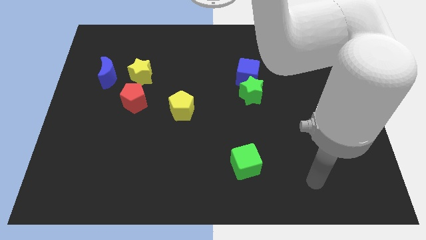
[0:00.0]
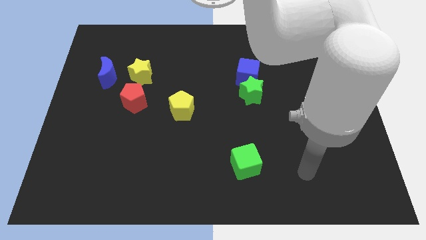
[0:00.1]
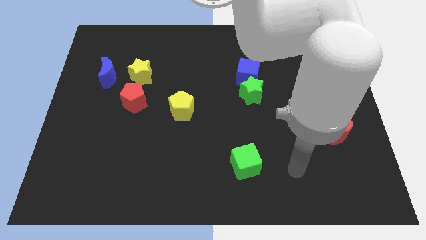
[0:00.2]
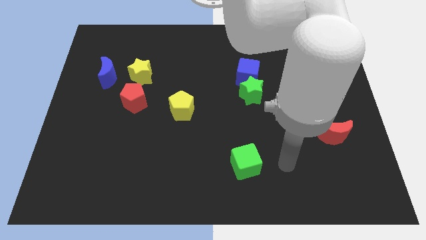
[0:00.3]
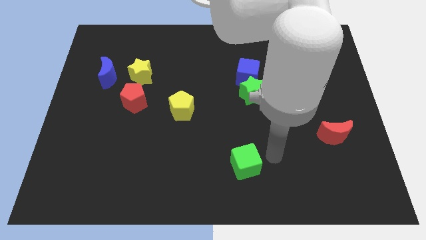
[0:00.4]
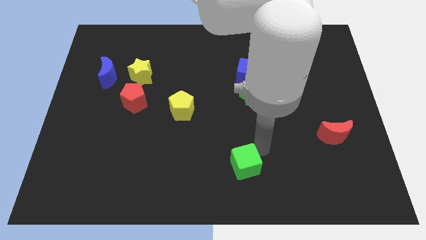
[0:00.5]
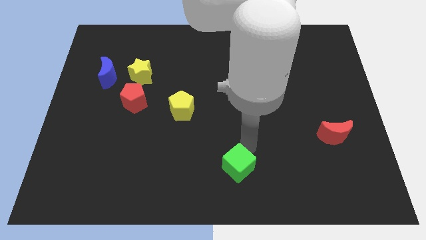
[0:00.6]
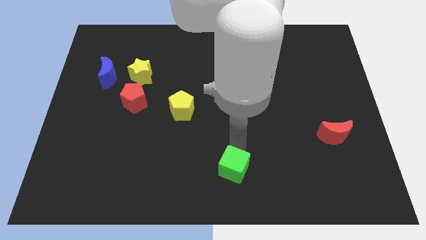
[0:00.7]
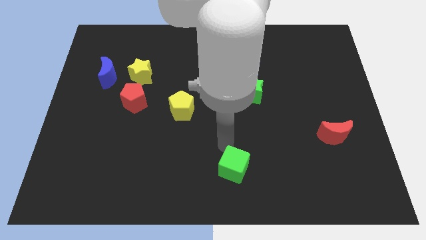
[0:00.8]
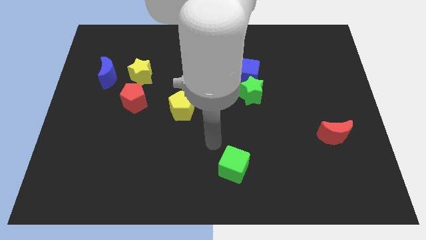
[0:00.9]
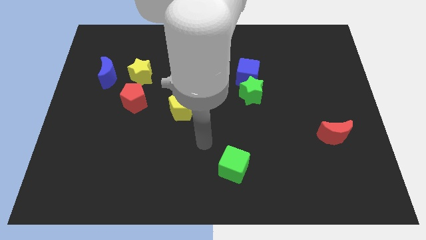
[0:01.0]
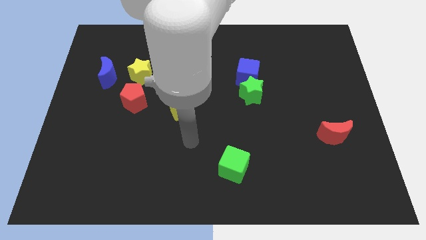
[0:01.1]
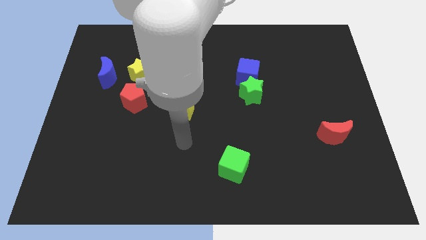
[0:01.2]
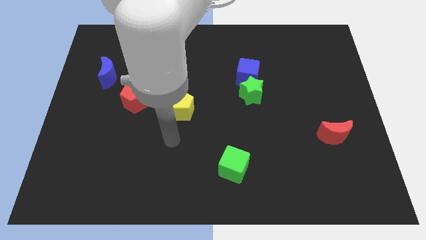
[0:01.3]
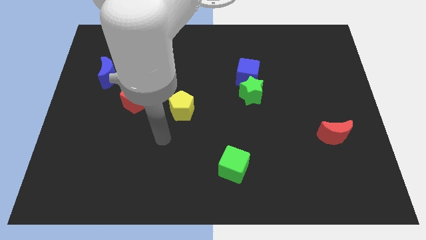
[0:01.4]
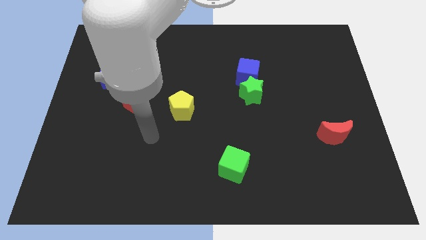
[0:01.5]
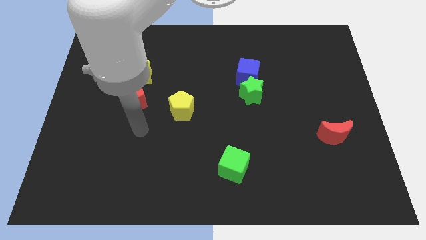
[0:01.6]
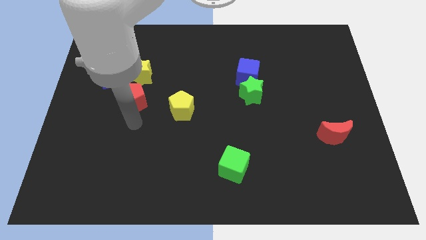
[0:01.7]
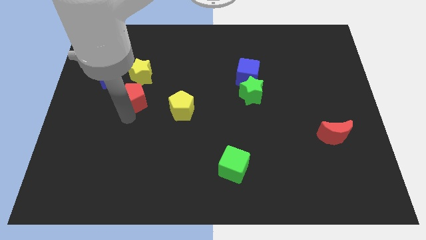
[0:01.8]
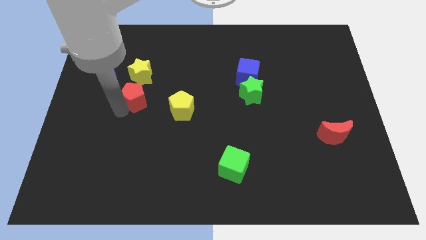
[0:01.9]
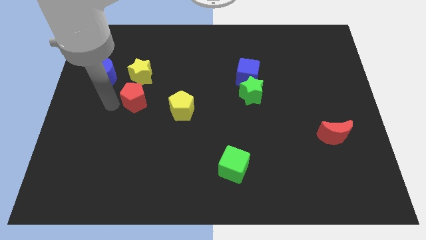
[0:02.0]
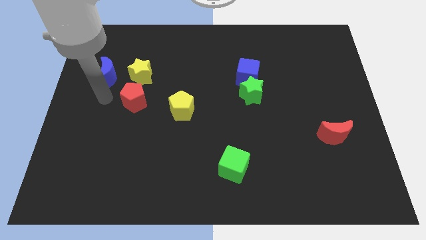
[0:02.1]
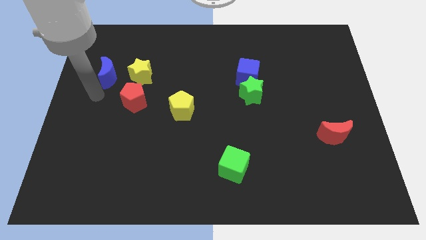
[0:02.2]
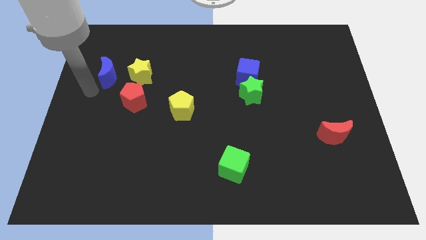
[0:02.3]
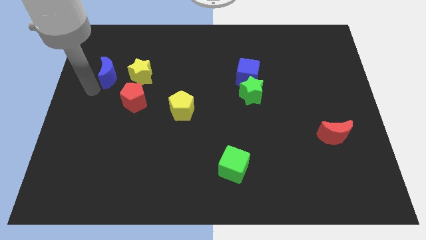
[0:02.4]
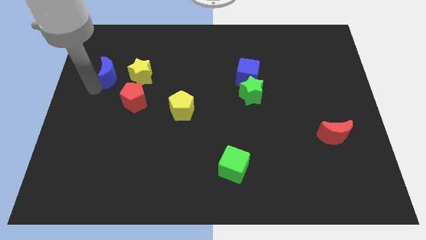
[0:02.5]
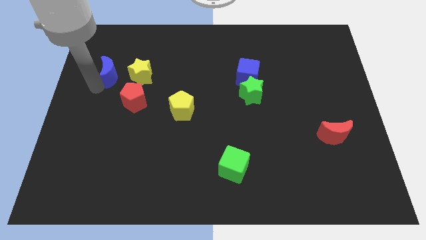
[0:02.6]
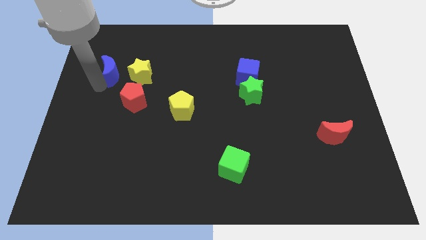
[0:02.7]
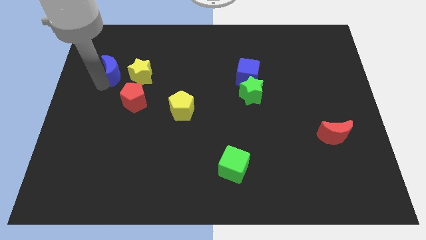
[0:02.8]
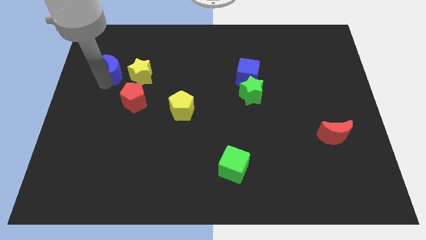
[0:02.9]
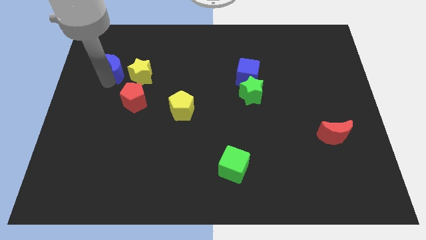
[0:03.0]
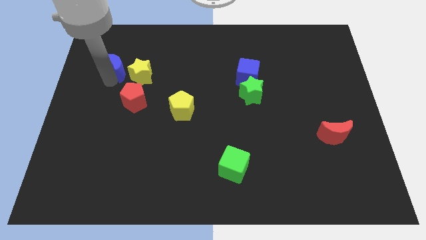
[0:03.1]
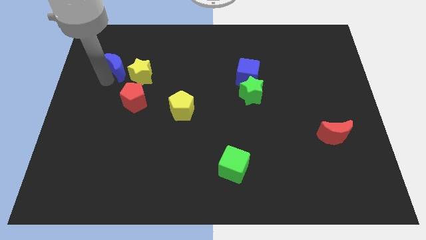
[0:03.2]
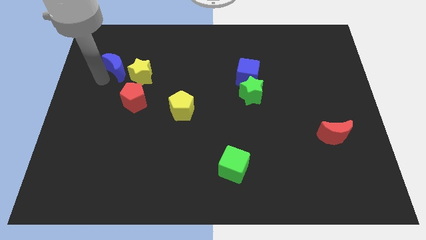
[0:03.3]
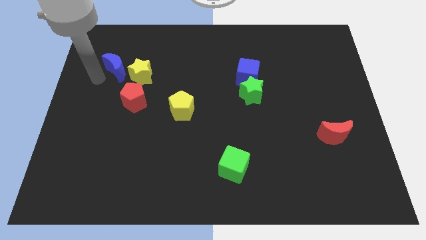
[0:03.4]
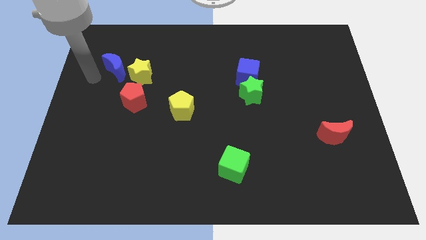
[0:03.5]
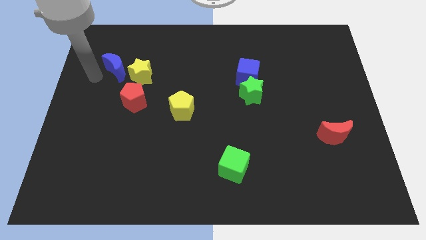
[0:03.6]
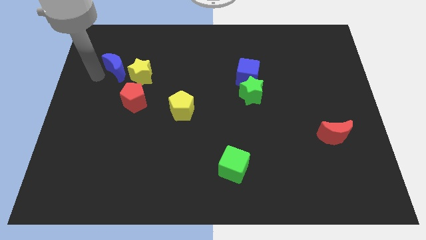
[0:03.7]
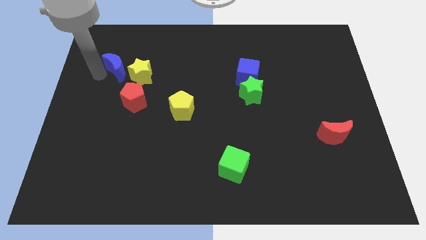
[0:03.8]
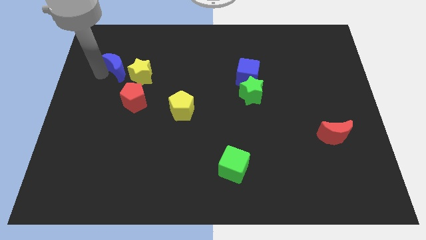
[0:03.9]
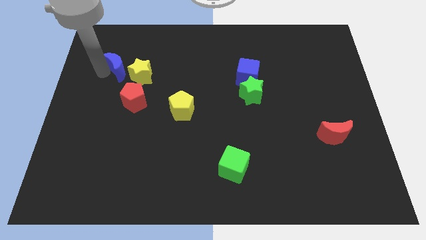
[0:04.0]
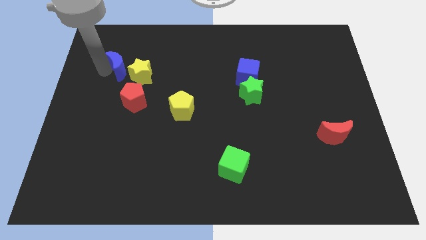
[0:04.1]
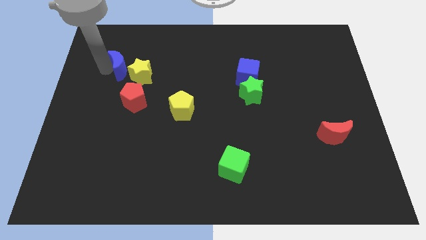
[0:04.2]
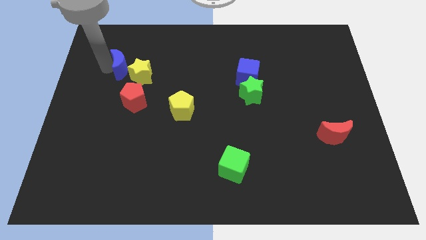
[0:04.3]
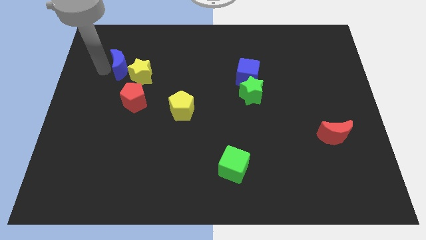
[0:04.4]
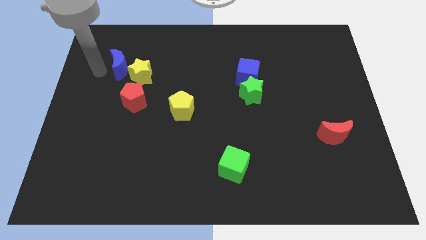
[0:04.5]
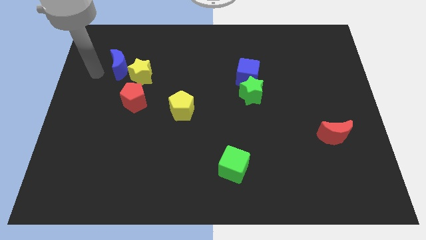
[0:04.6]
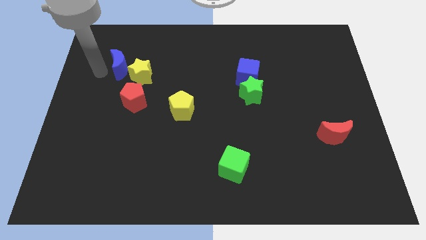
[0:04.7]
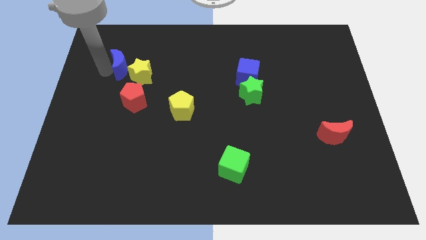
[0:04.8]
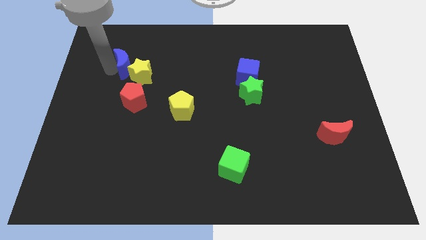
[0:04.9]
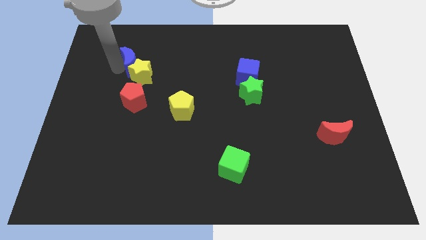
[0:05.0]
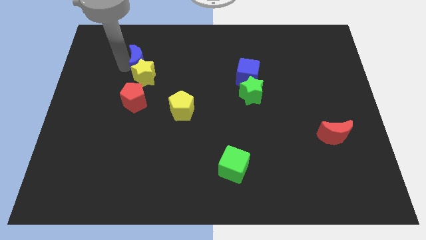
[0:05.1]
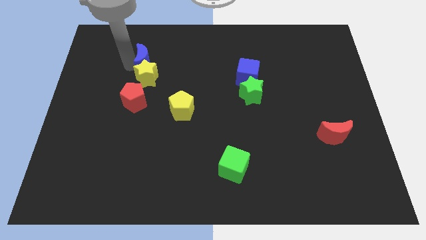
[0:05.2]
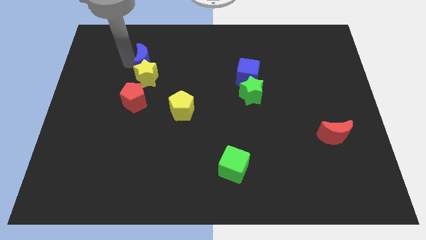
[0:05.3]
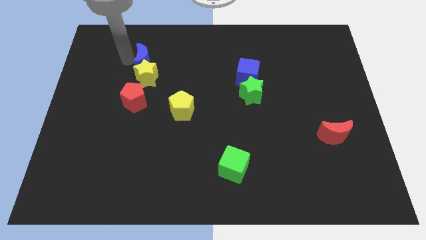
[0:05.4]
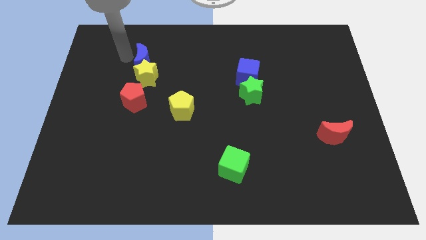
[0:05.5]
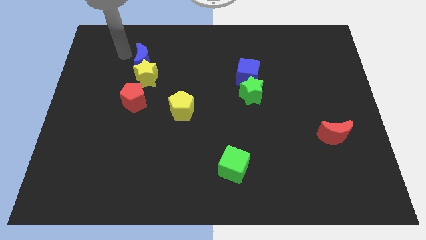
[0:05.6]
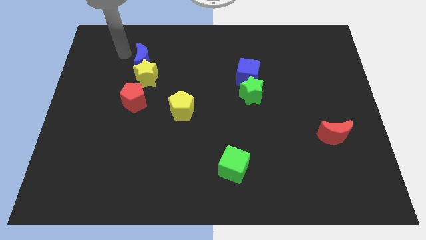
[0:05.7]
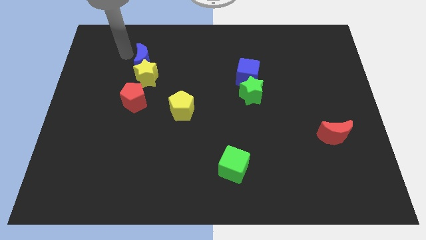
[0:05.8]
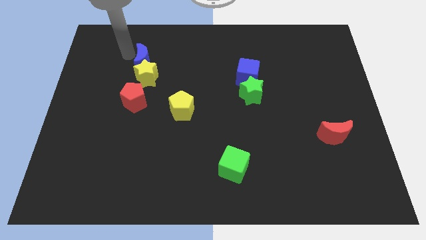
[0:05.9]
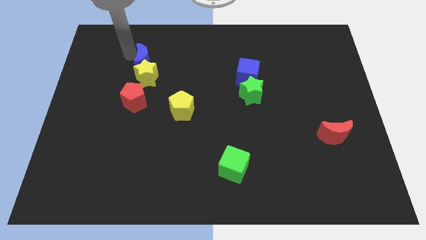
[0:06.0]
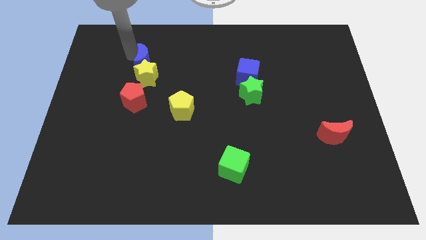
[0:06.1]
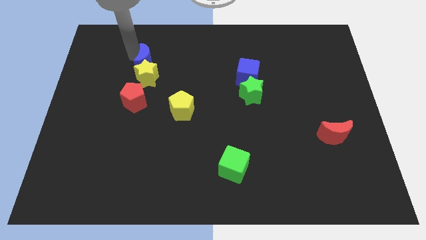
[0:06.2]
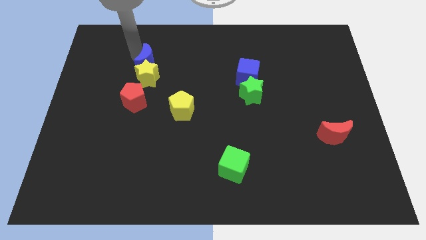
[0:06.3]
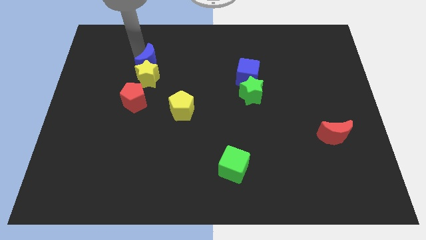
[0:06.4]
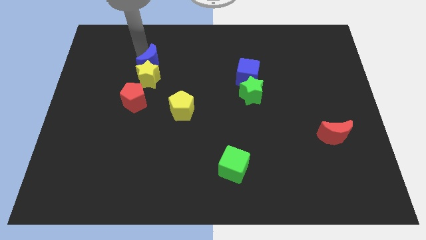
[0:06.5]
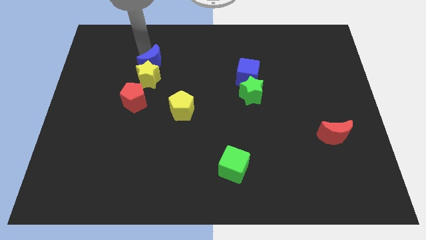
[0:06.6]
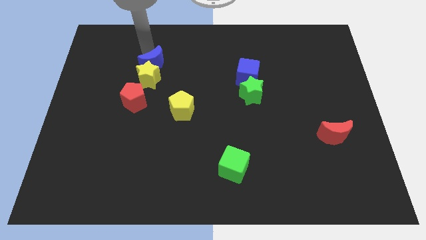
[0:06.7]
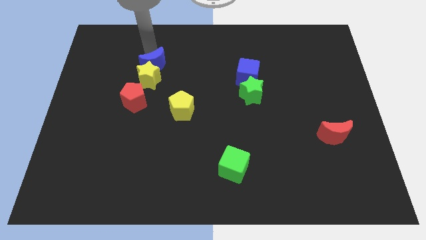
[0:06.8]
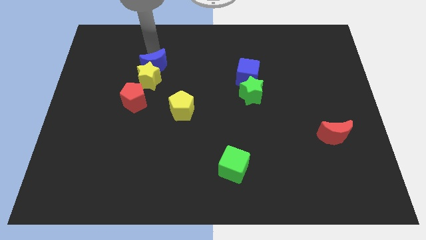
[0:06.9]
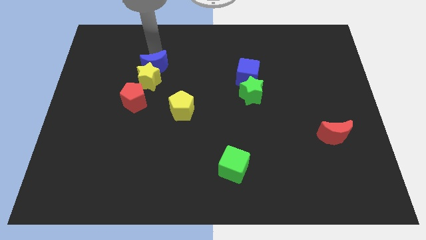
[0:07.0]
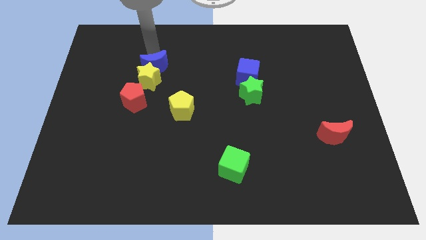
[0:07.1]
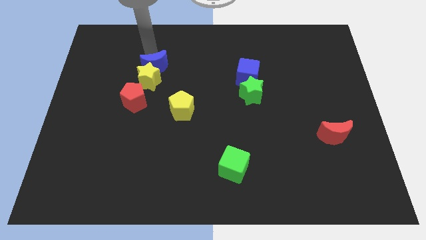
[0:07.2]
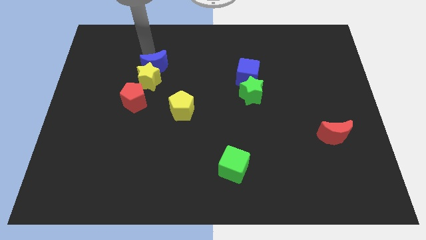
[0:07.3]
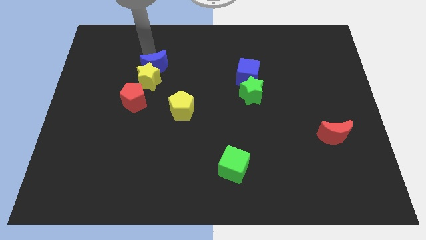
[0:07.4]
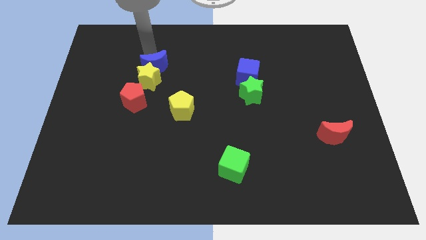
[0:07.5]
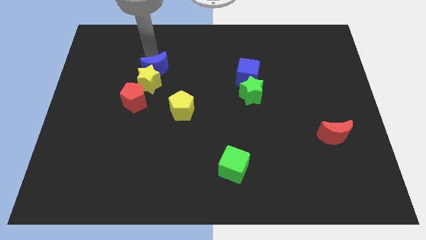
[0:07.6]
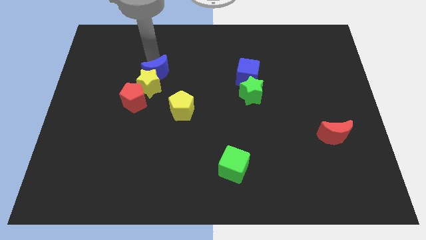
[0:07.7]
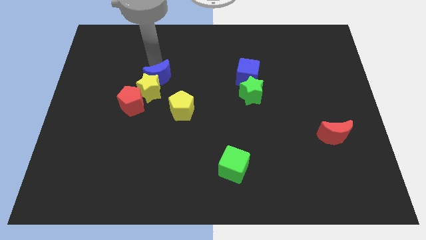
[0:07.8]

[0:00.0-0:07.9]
push the blue moon diagonally up and to the left of the yellow pentagon
